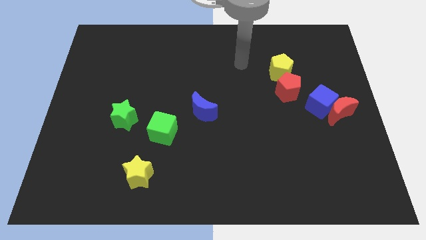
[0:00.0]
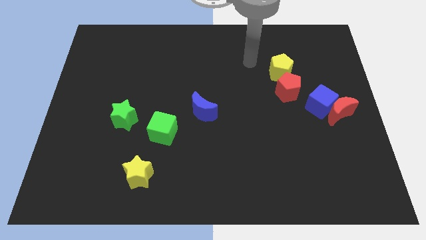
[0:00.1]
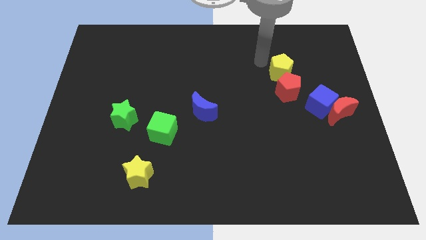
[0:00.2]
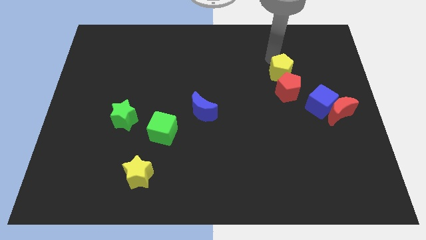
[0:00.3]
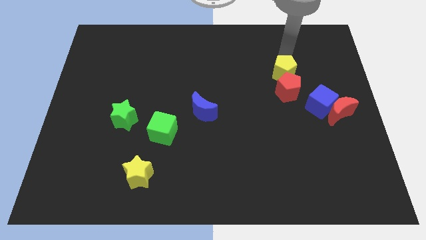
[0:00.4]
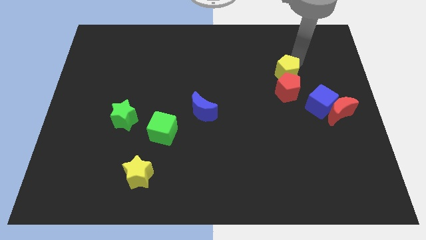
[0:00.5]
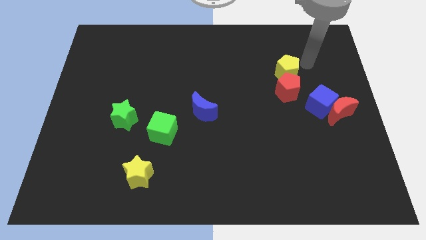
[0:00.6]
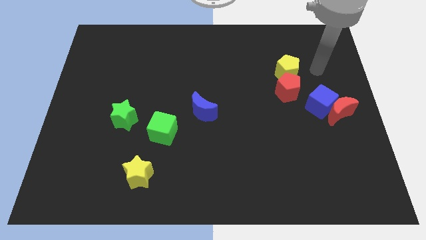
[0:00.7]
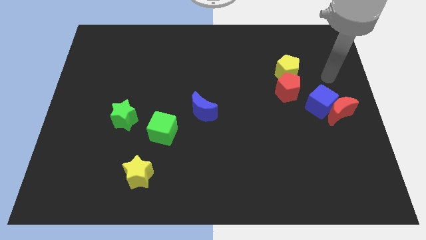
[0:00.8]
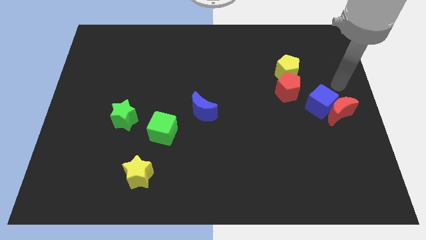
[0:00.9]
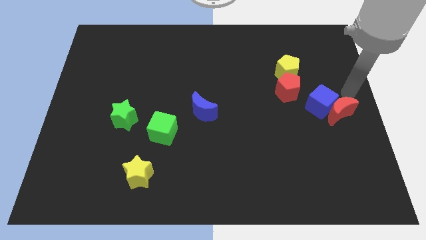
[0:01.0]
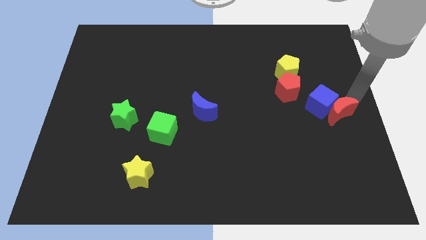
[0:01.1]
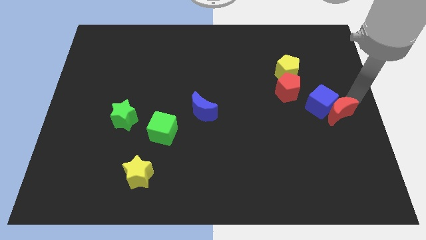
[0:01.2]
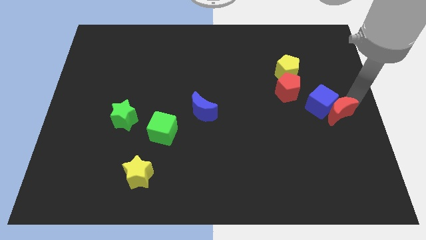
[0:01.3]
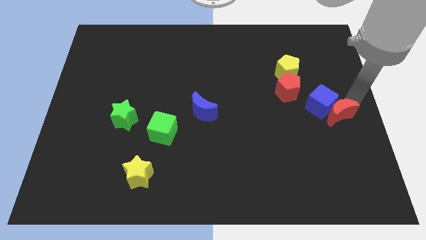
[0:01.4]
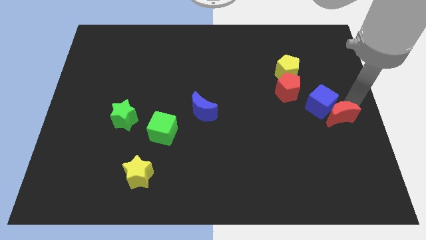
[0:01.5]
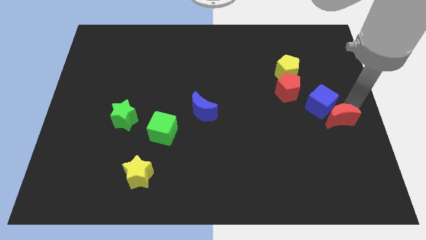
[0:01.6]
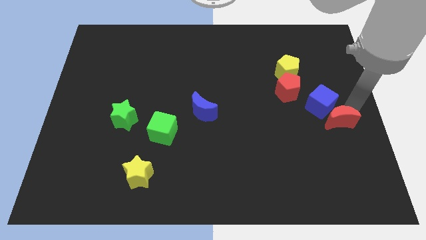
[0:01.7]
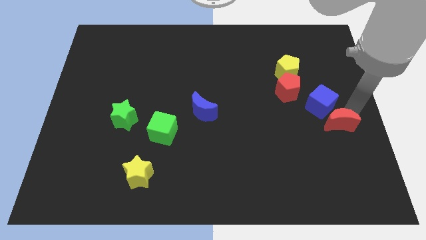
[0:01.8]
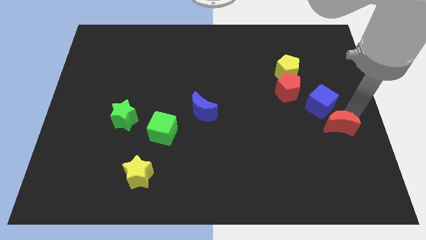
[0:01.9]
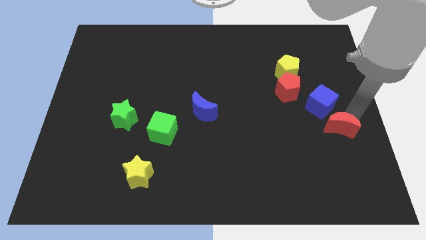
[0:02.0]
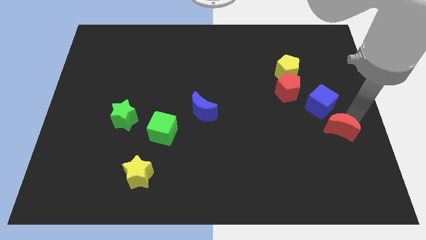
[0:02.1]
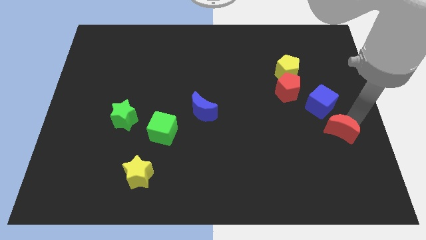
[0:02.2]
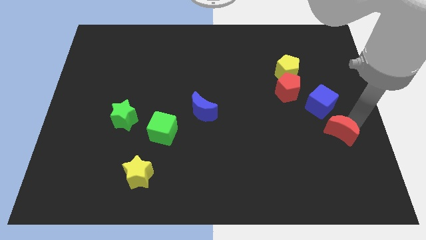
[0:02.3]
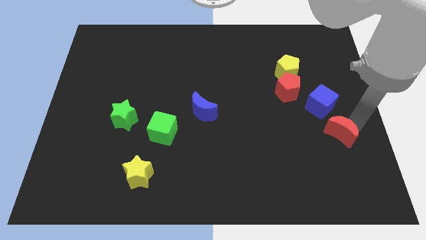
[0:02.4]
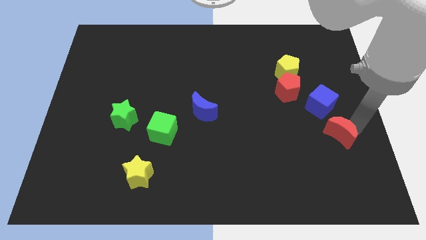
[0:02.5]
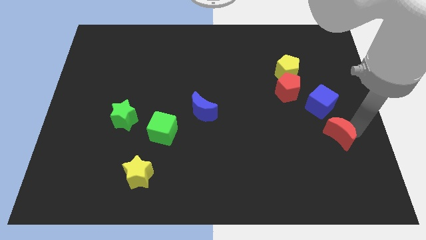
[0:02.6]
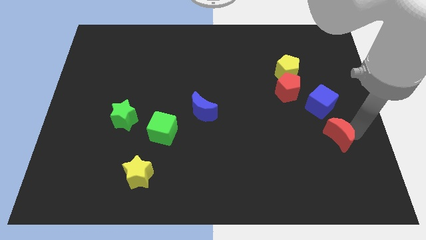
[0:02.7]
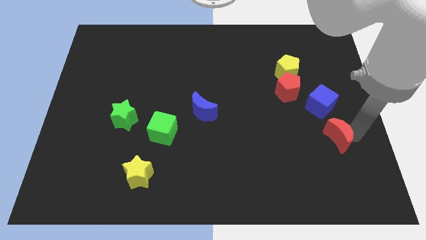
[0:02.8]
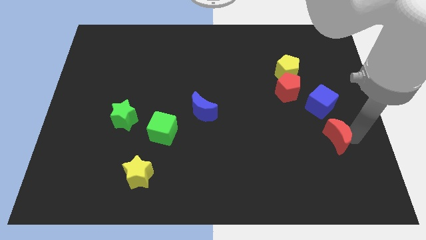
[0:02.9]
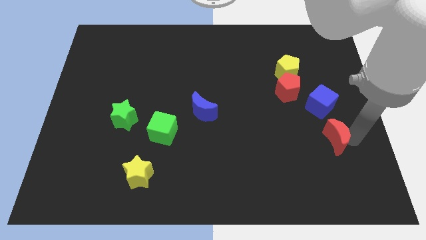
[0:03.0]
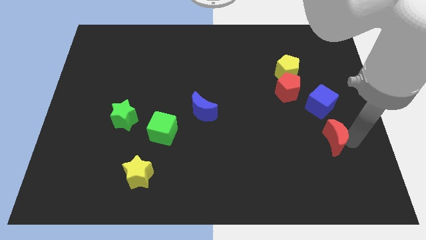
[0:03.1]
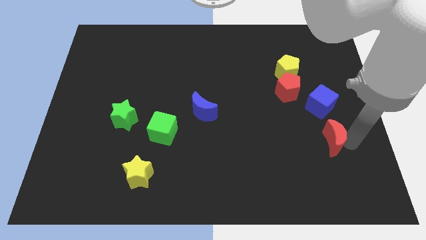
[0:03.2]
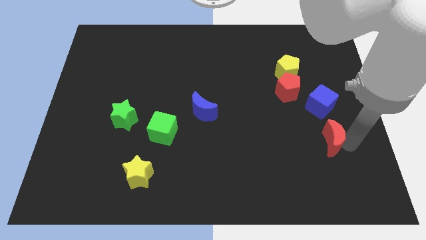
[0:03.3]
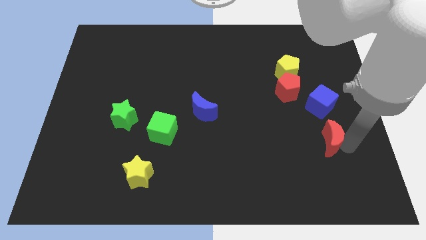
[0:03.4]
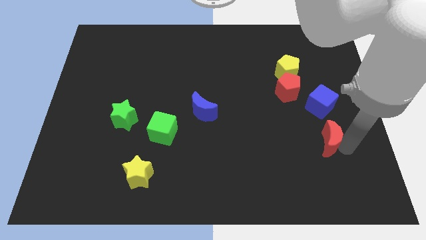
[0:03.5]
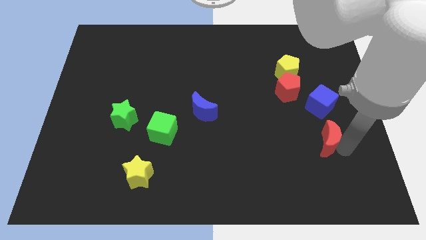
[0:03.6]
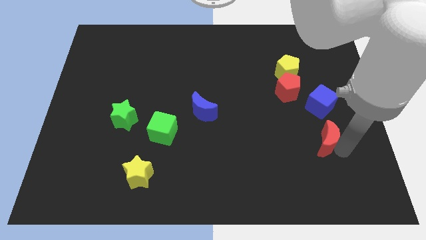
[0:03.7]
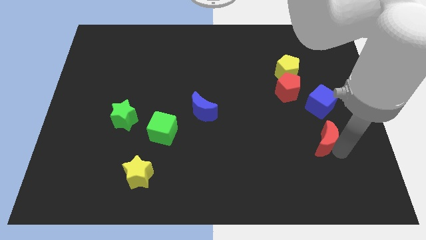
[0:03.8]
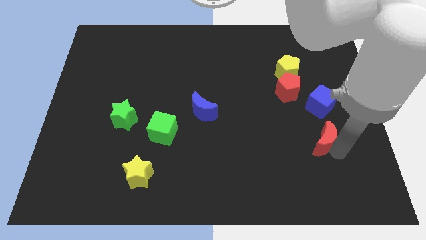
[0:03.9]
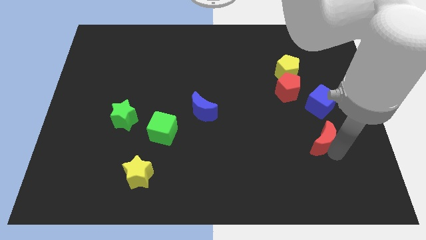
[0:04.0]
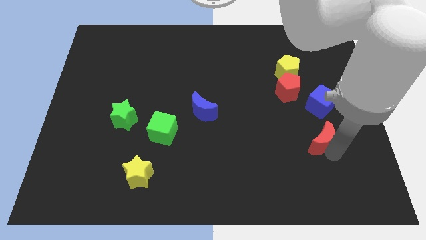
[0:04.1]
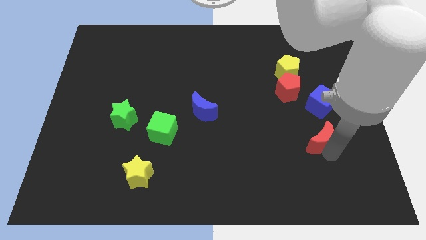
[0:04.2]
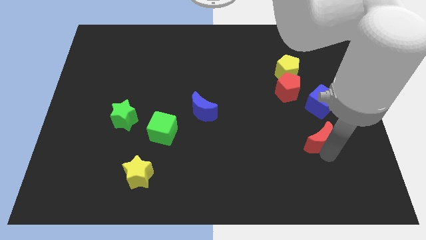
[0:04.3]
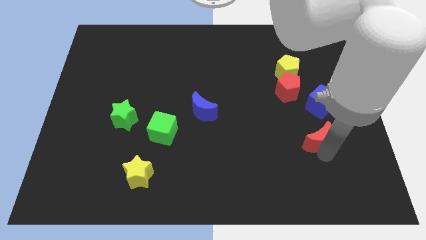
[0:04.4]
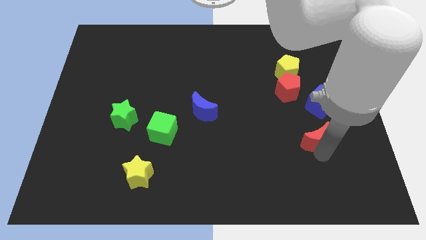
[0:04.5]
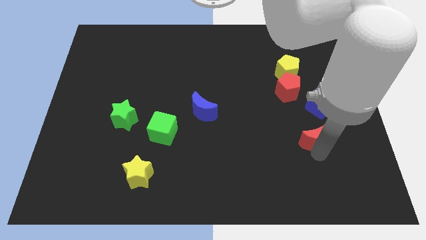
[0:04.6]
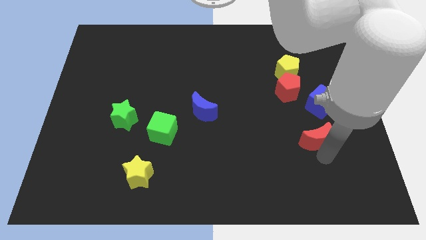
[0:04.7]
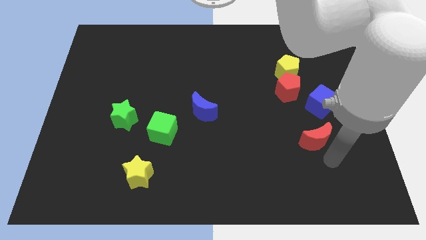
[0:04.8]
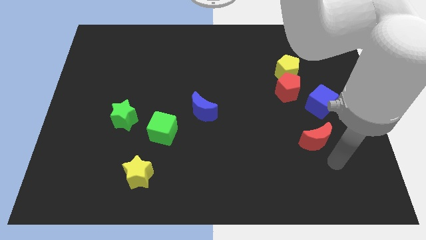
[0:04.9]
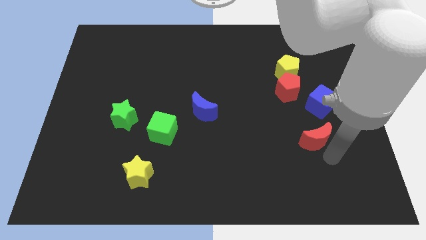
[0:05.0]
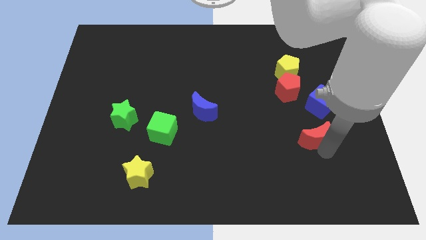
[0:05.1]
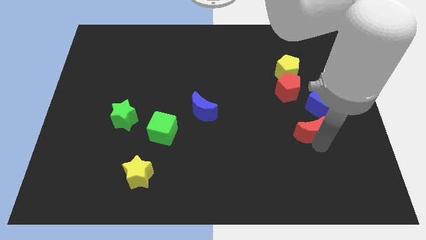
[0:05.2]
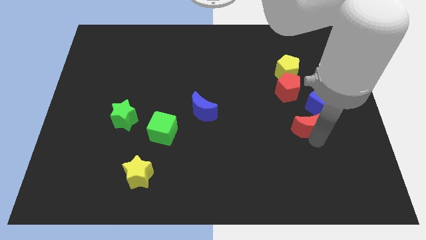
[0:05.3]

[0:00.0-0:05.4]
push the red moon left somewhat

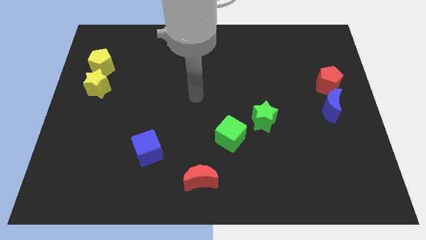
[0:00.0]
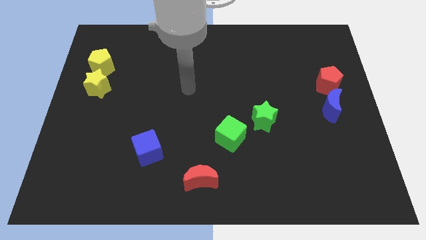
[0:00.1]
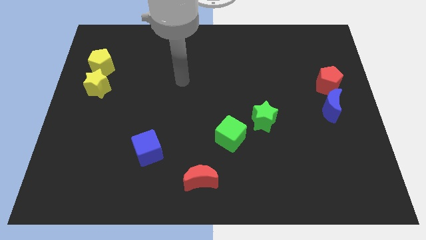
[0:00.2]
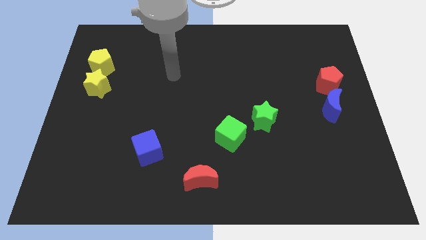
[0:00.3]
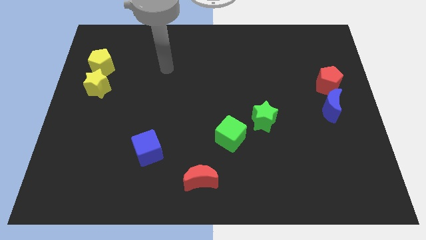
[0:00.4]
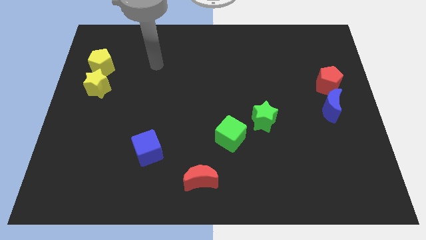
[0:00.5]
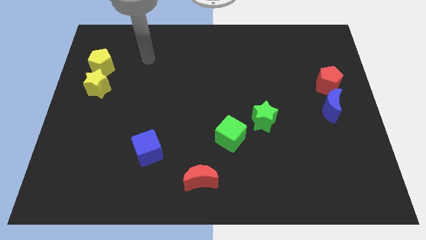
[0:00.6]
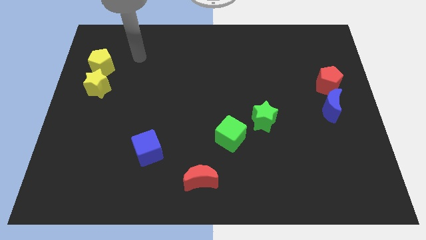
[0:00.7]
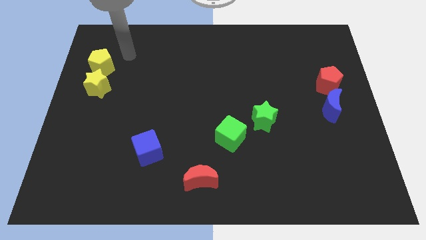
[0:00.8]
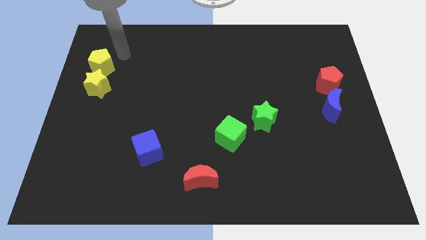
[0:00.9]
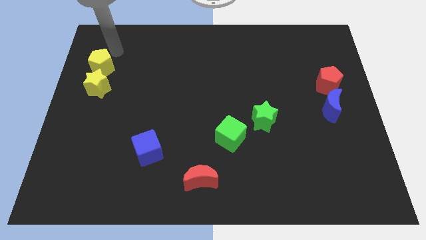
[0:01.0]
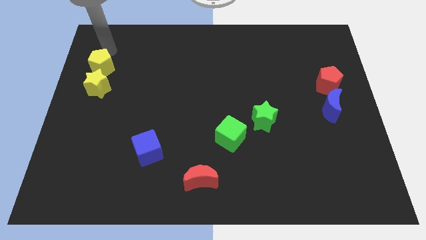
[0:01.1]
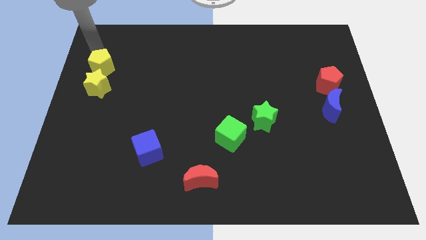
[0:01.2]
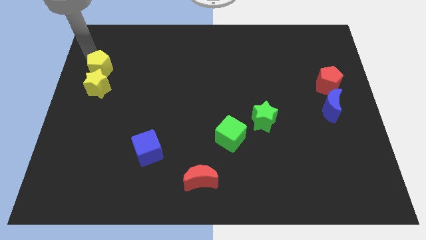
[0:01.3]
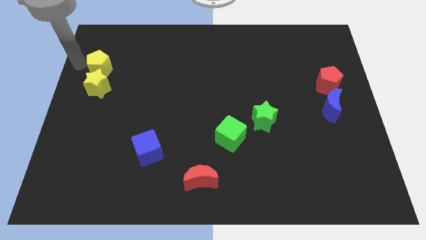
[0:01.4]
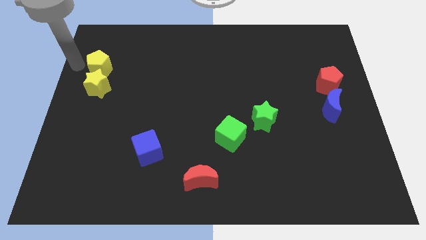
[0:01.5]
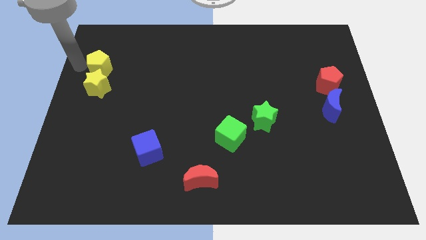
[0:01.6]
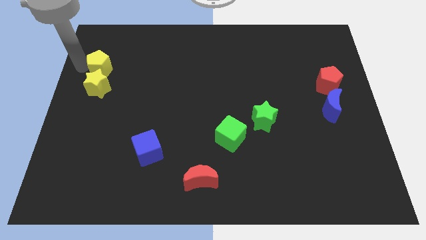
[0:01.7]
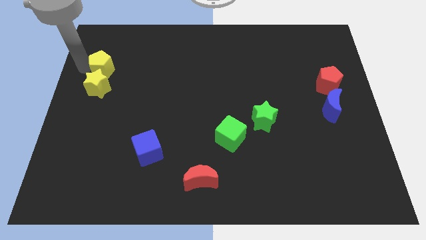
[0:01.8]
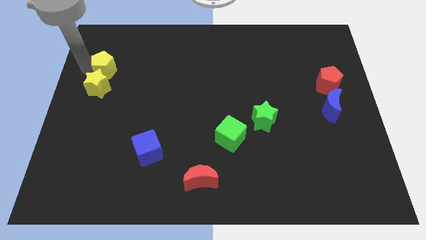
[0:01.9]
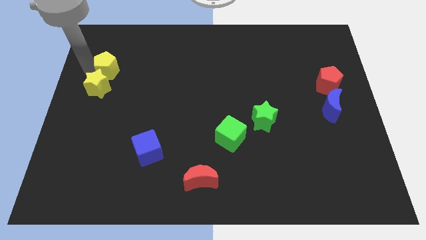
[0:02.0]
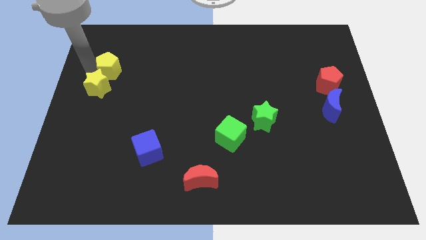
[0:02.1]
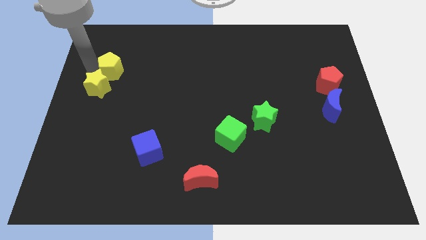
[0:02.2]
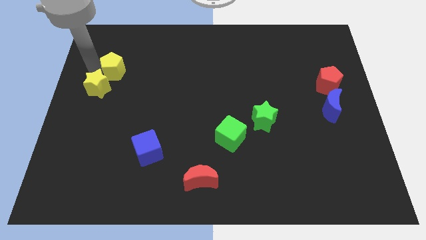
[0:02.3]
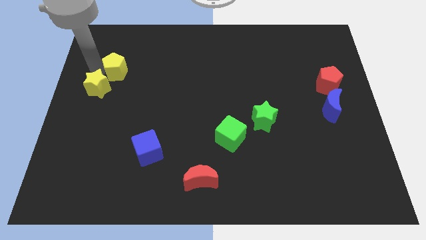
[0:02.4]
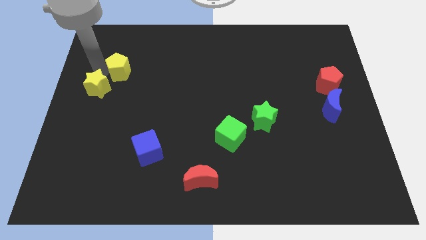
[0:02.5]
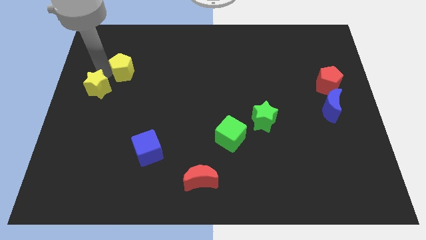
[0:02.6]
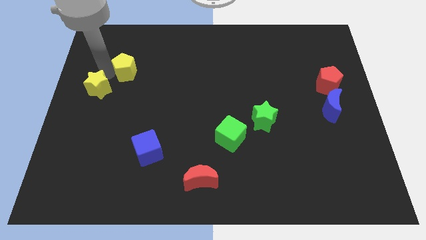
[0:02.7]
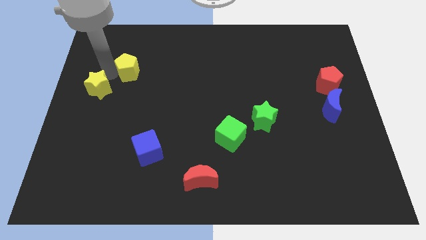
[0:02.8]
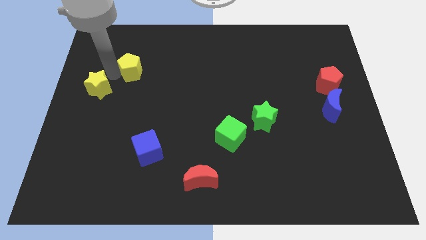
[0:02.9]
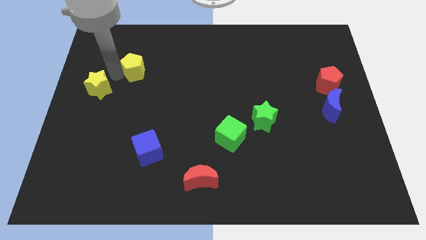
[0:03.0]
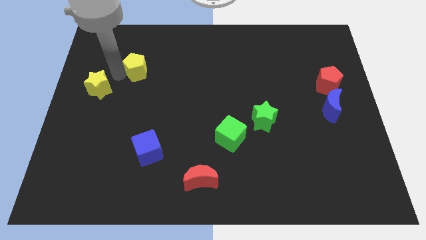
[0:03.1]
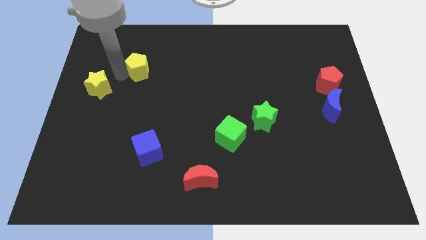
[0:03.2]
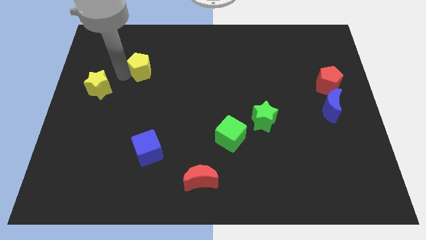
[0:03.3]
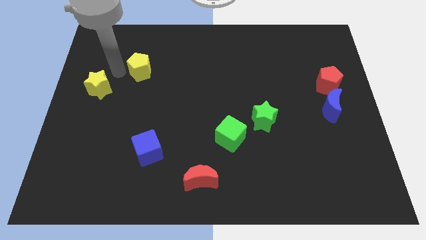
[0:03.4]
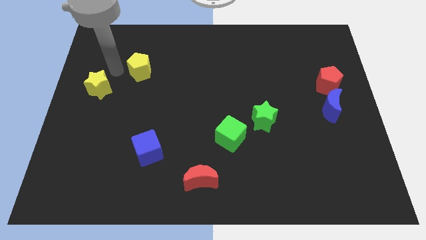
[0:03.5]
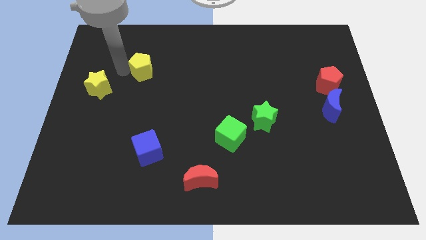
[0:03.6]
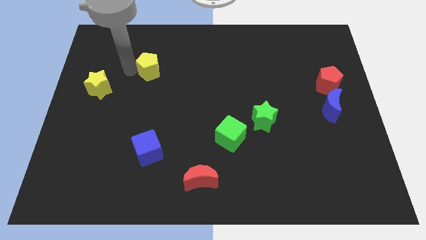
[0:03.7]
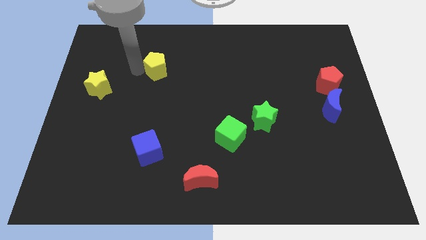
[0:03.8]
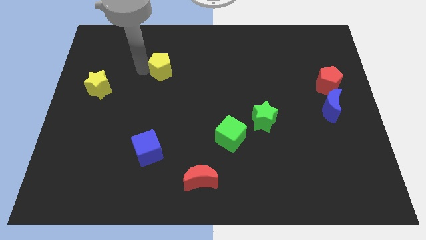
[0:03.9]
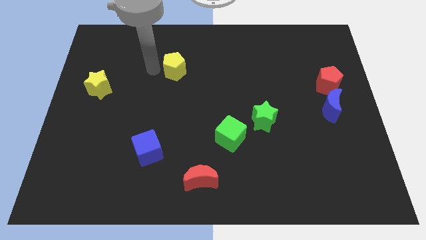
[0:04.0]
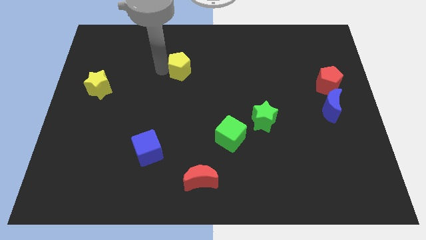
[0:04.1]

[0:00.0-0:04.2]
move the yellow pentagon right
